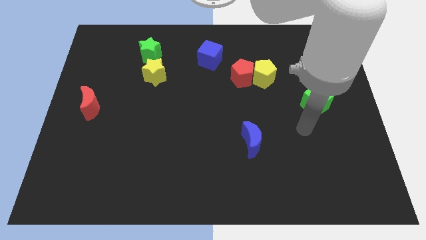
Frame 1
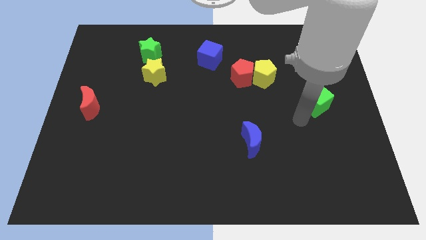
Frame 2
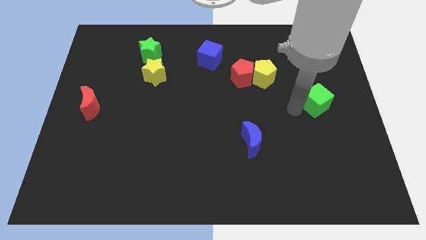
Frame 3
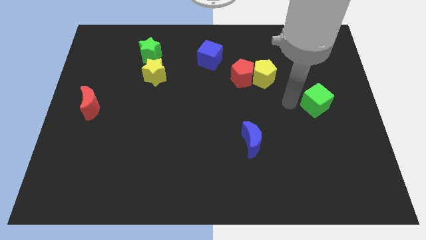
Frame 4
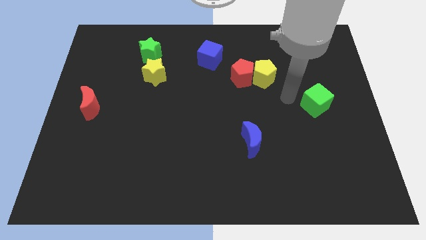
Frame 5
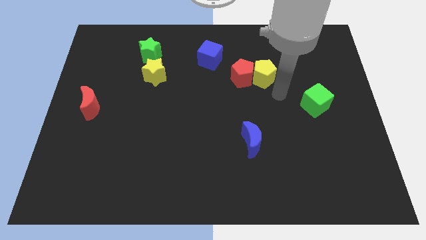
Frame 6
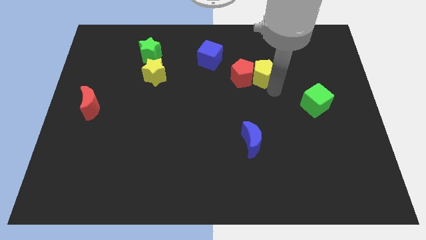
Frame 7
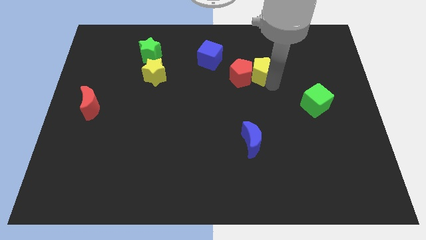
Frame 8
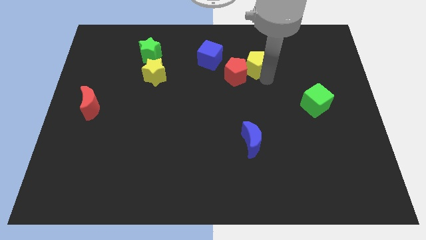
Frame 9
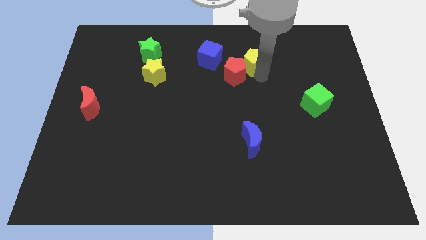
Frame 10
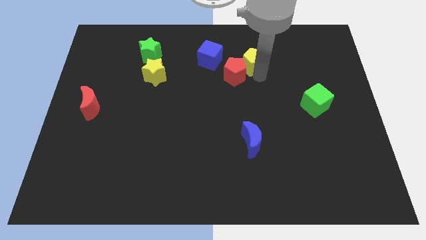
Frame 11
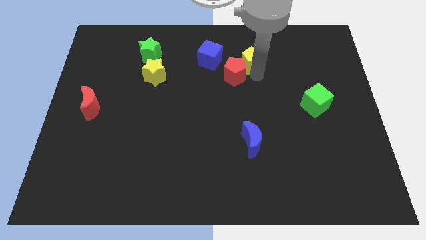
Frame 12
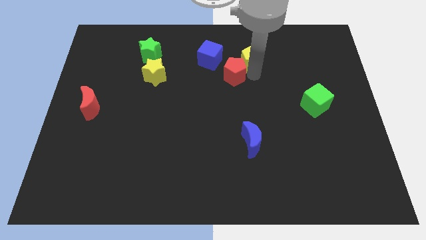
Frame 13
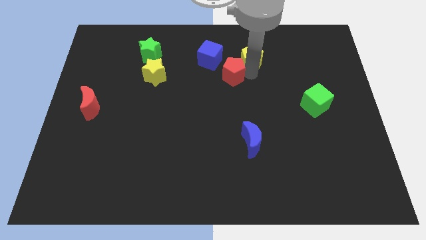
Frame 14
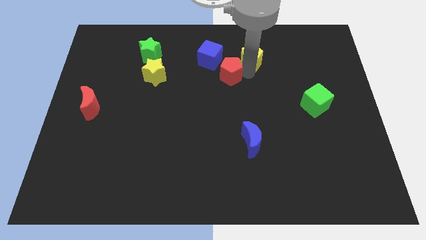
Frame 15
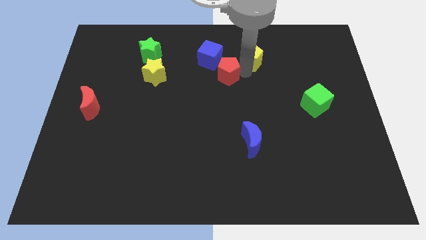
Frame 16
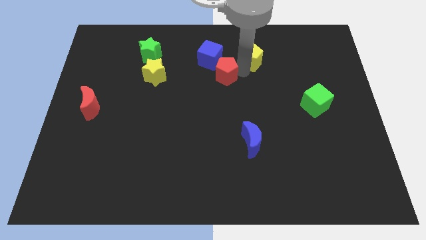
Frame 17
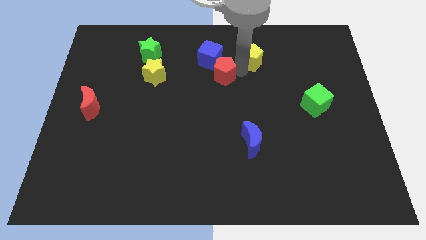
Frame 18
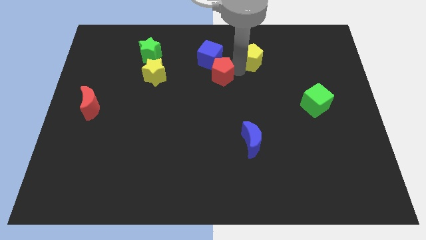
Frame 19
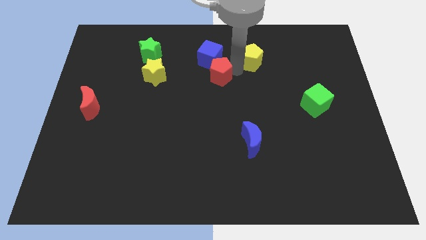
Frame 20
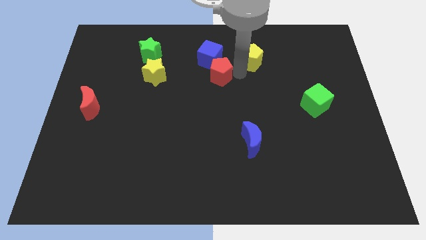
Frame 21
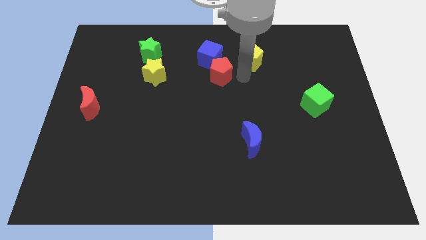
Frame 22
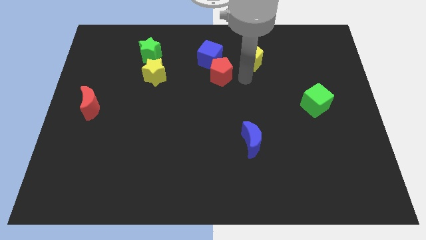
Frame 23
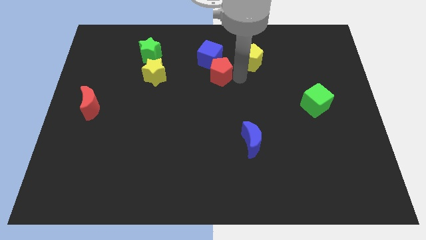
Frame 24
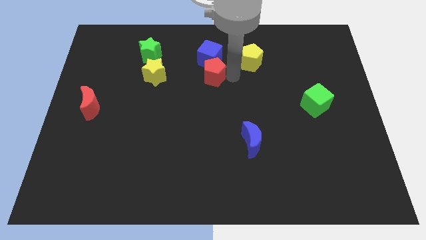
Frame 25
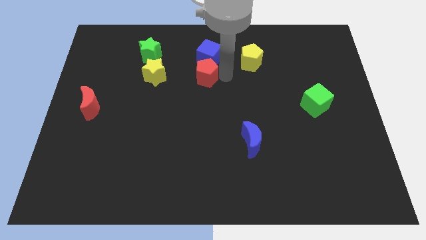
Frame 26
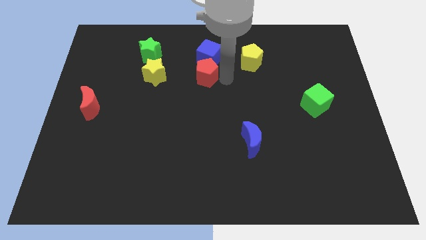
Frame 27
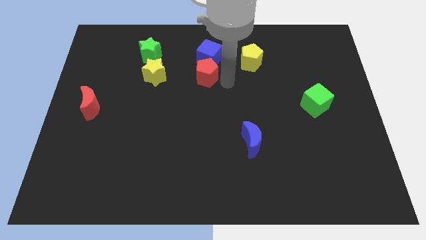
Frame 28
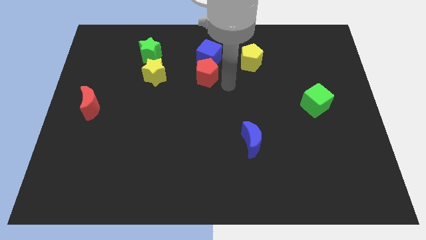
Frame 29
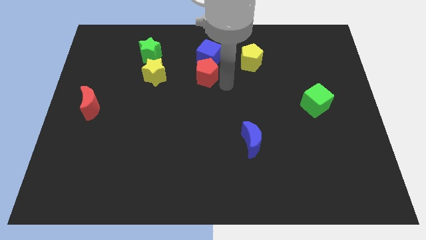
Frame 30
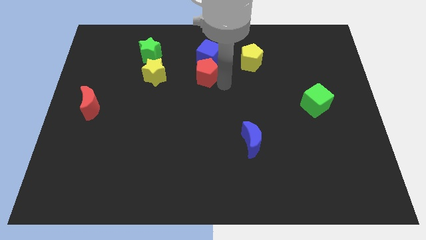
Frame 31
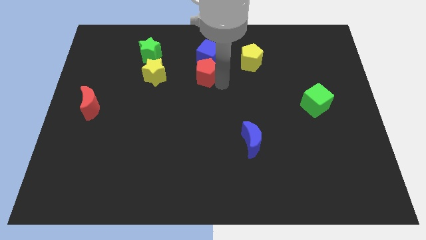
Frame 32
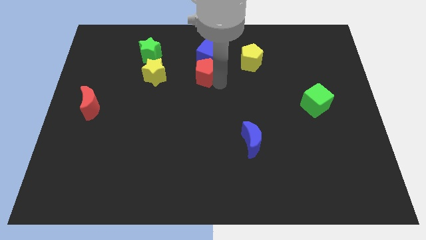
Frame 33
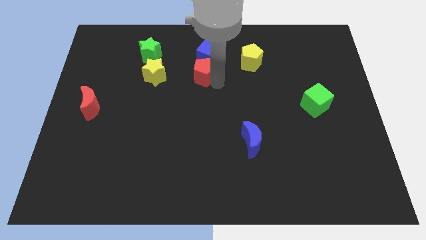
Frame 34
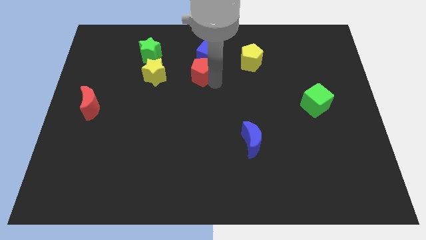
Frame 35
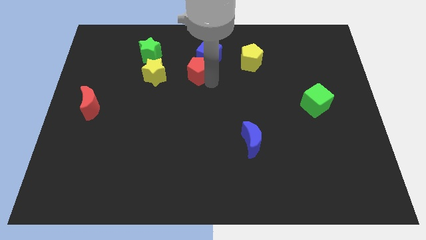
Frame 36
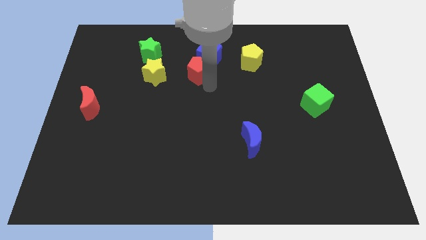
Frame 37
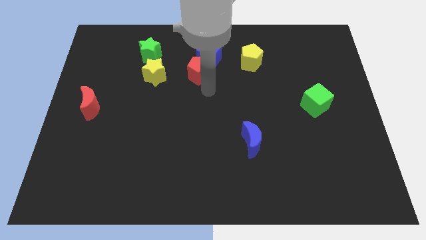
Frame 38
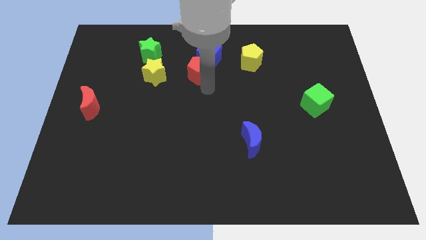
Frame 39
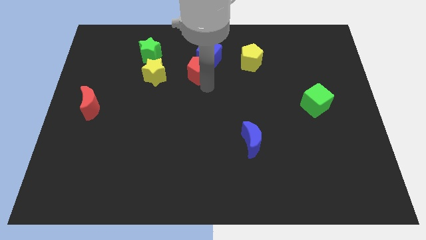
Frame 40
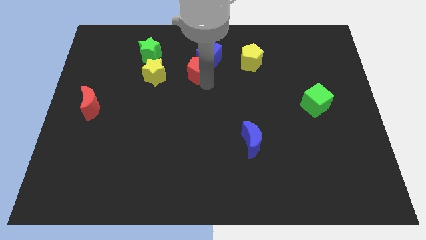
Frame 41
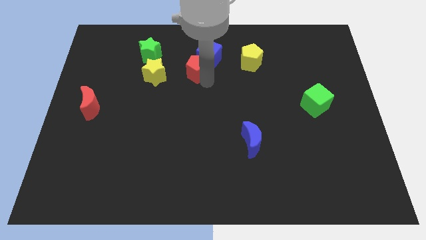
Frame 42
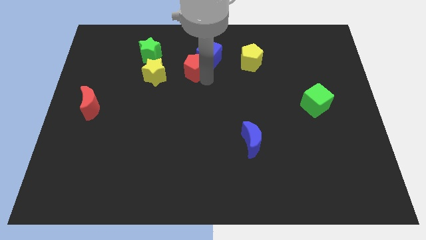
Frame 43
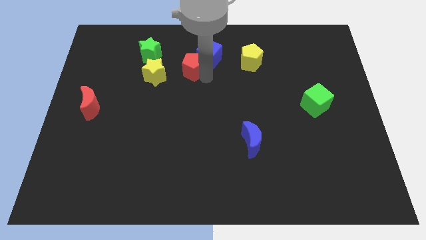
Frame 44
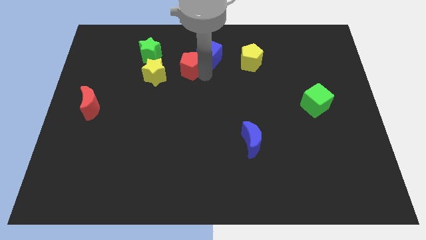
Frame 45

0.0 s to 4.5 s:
move the red pentagon to the right of the green star

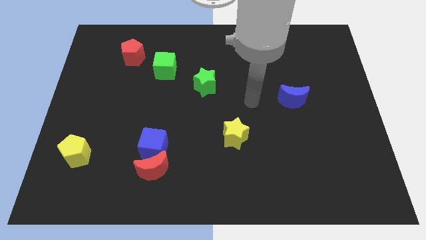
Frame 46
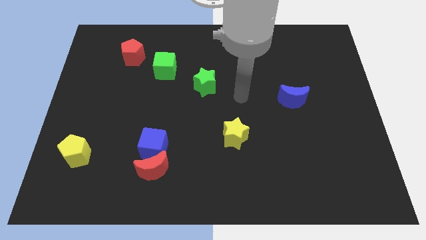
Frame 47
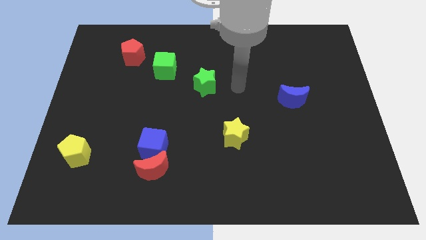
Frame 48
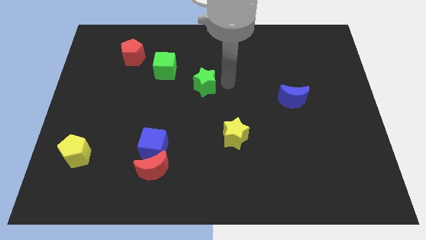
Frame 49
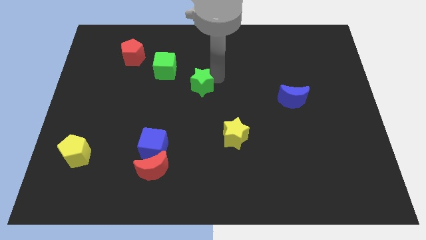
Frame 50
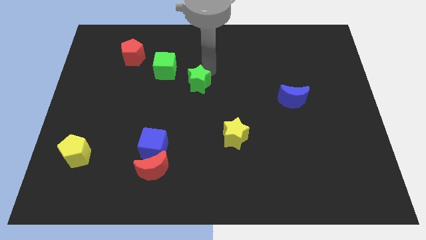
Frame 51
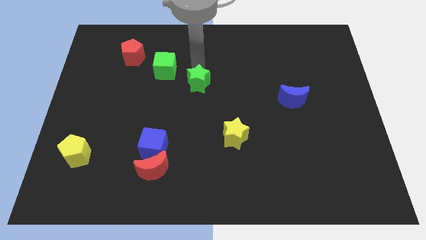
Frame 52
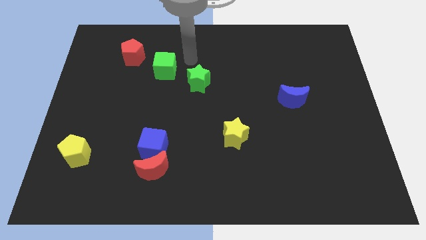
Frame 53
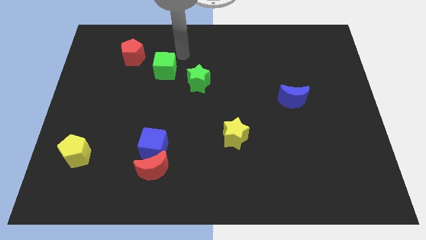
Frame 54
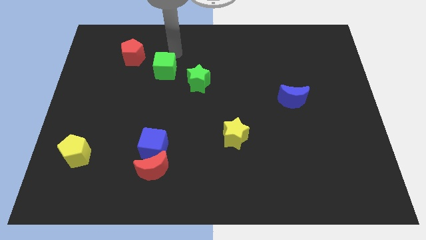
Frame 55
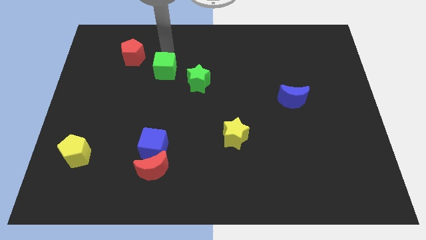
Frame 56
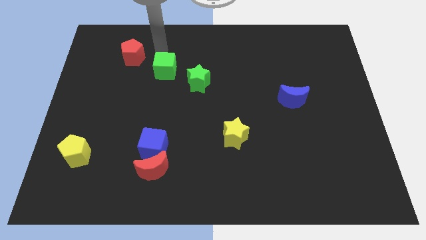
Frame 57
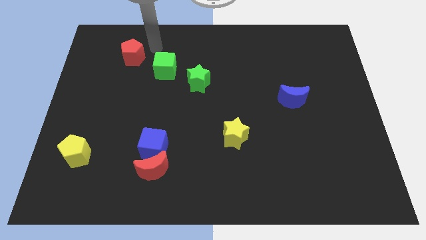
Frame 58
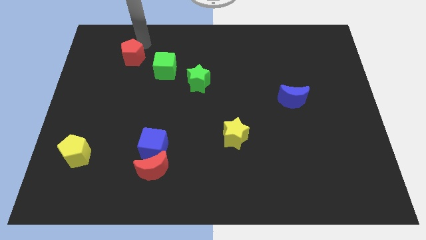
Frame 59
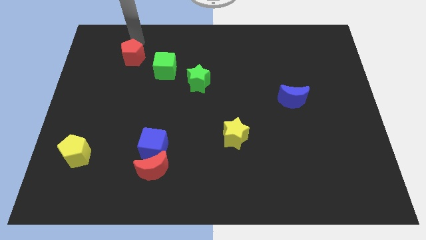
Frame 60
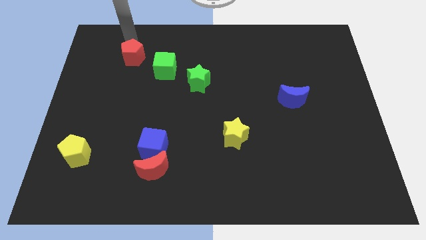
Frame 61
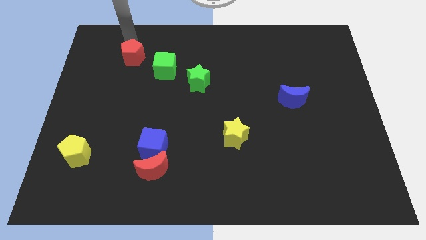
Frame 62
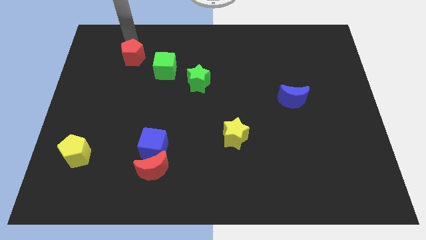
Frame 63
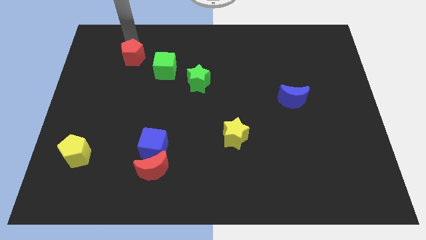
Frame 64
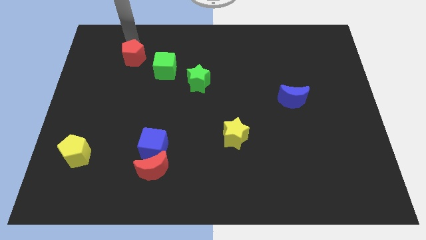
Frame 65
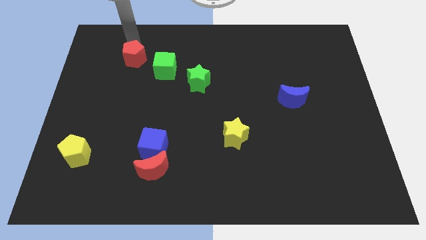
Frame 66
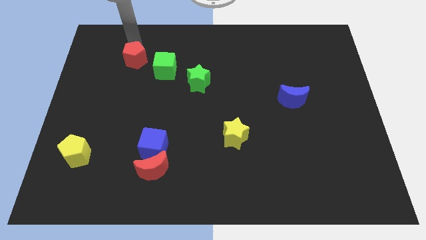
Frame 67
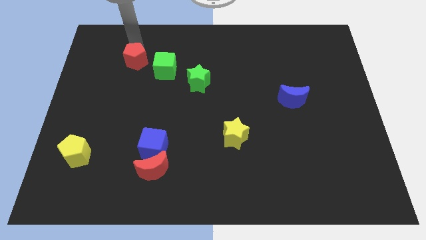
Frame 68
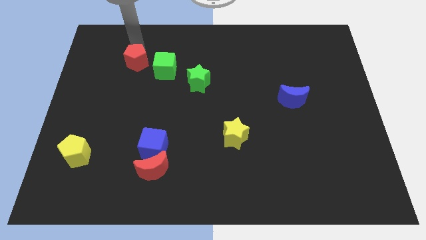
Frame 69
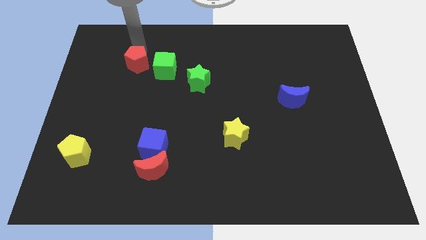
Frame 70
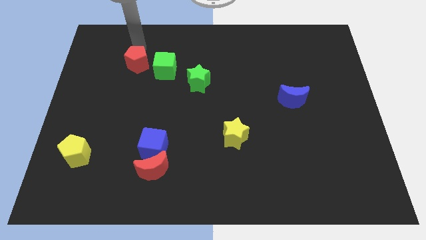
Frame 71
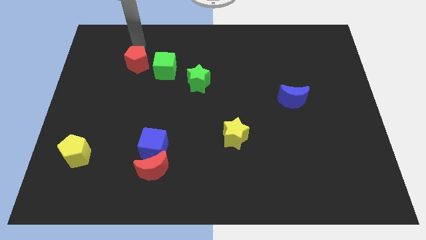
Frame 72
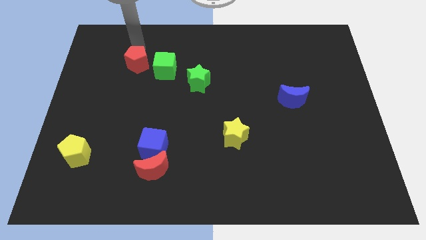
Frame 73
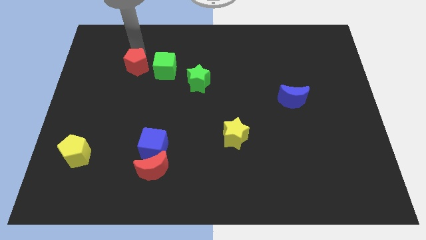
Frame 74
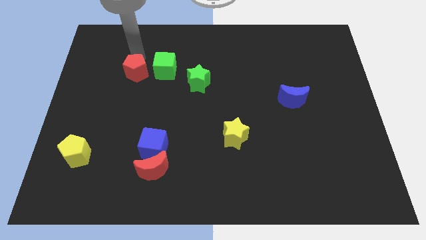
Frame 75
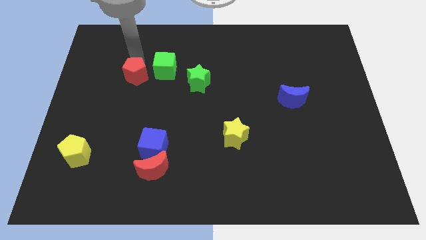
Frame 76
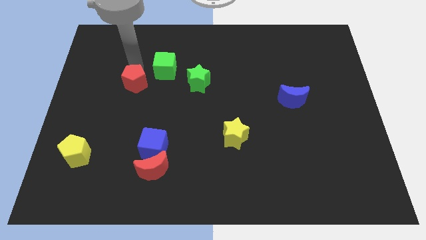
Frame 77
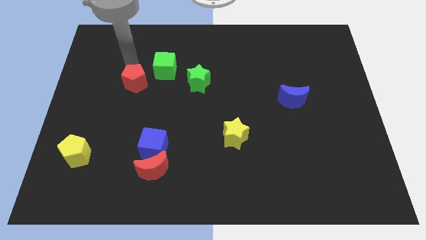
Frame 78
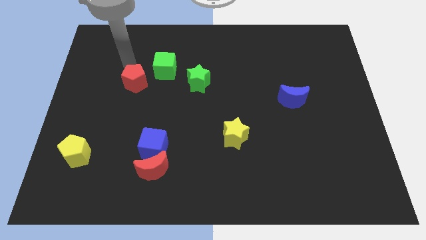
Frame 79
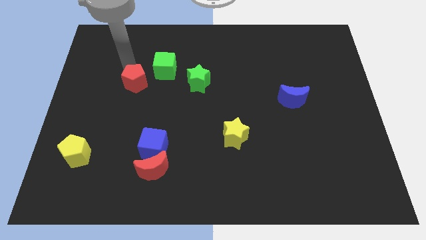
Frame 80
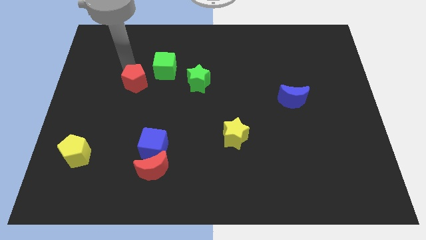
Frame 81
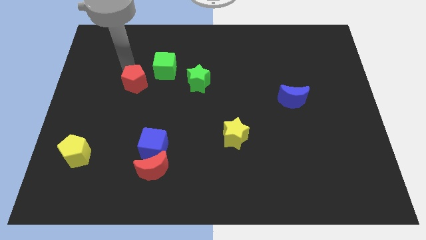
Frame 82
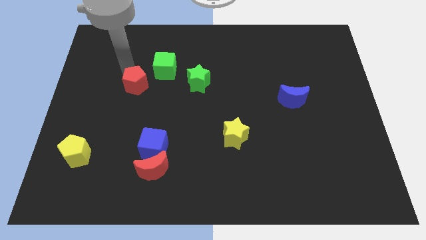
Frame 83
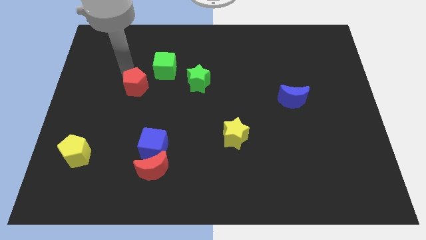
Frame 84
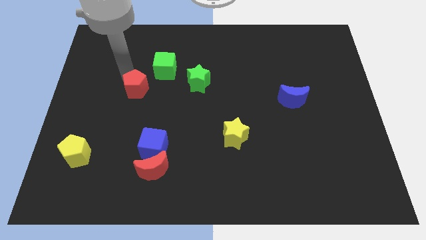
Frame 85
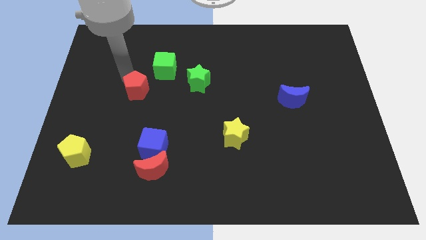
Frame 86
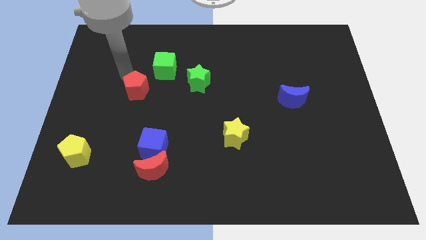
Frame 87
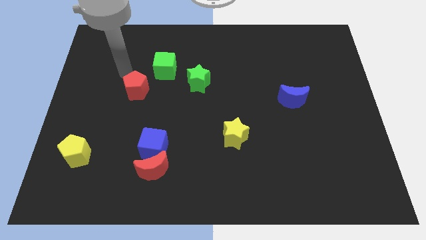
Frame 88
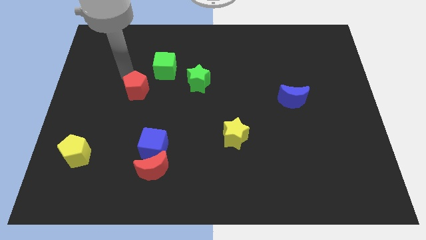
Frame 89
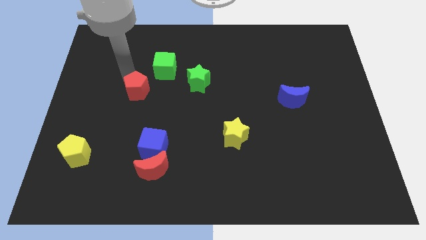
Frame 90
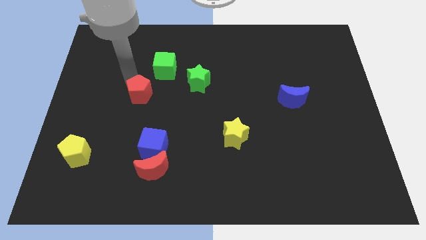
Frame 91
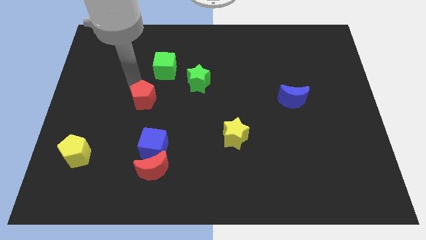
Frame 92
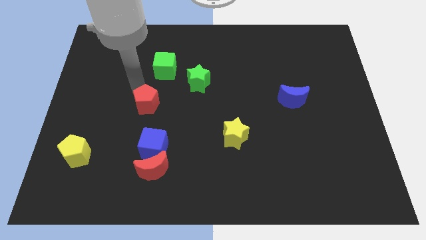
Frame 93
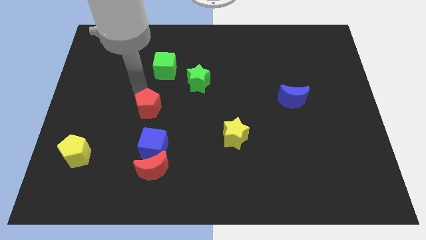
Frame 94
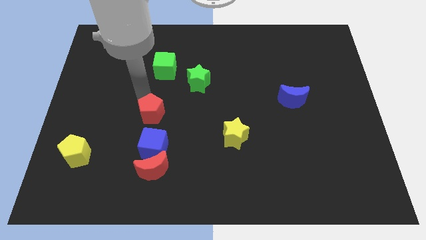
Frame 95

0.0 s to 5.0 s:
move the red pentagon to the top of the red moon
